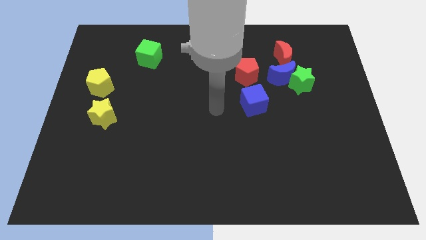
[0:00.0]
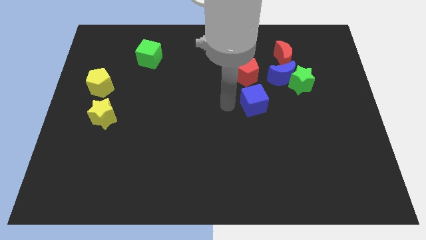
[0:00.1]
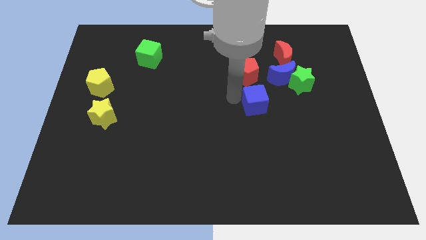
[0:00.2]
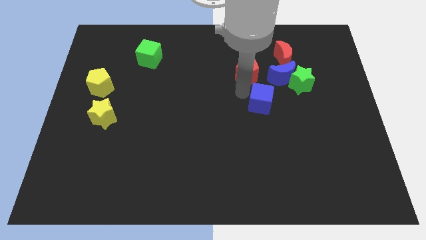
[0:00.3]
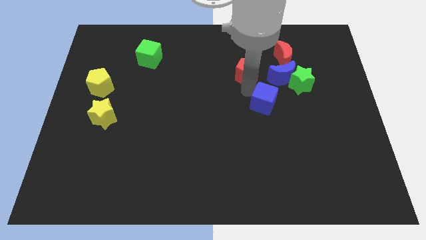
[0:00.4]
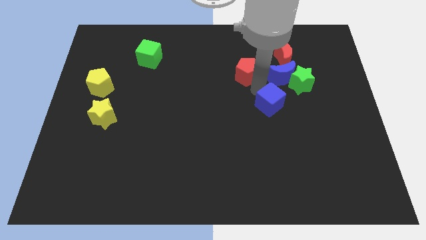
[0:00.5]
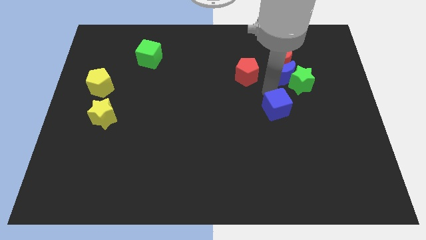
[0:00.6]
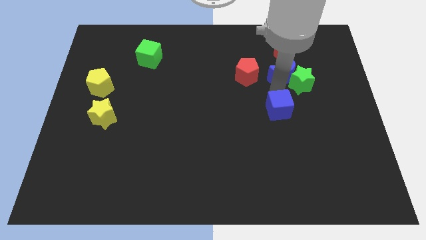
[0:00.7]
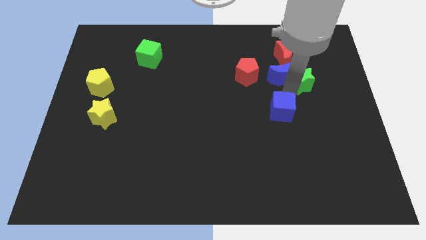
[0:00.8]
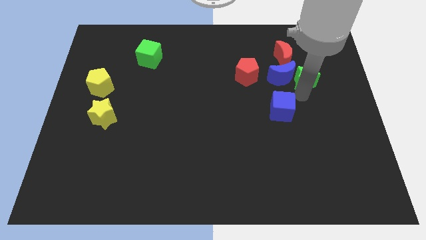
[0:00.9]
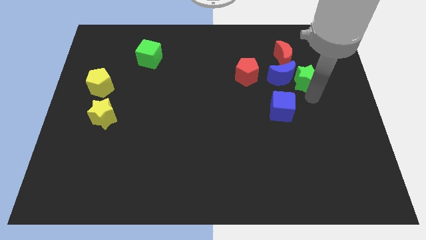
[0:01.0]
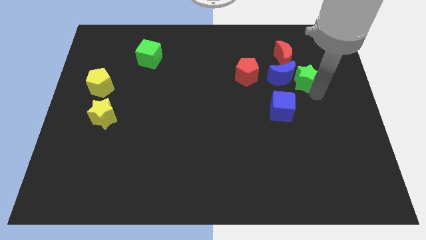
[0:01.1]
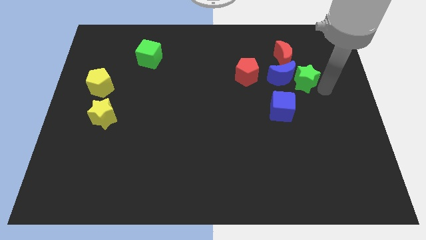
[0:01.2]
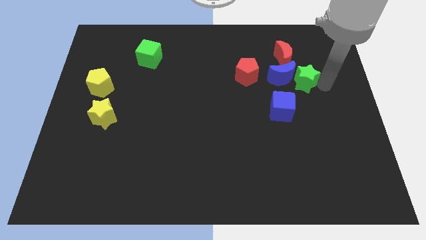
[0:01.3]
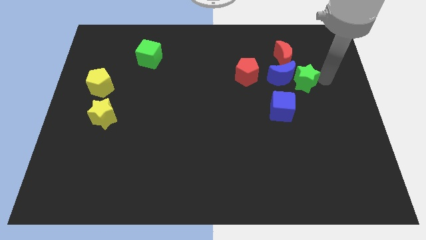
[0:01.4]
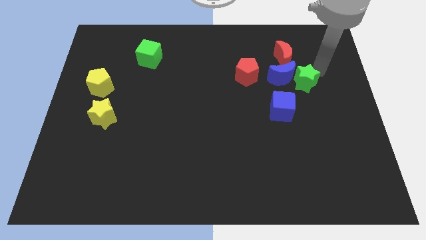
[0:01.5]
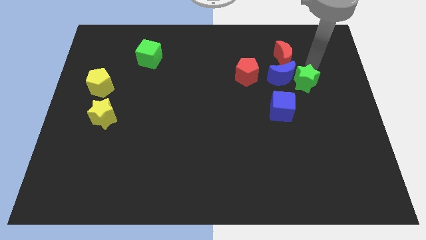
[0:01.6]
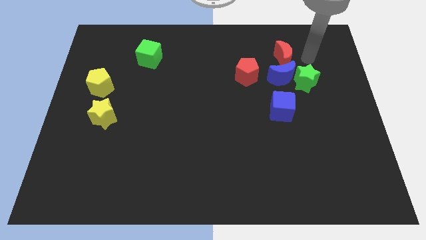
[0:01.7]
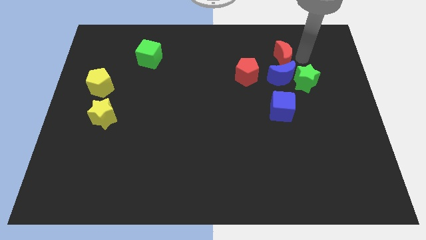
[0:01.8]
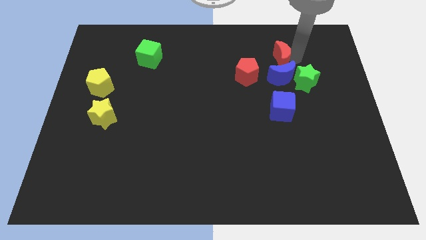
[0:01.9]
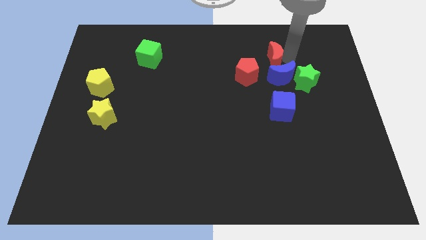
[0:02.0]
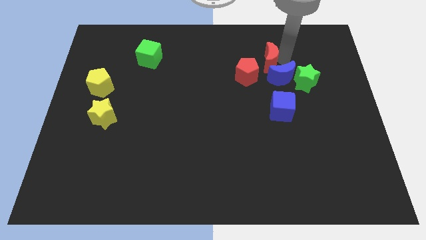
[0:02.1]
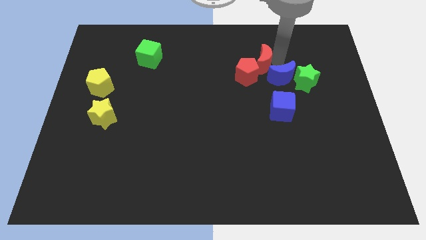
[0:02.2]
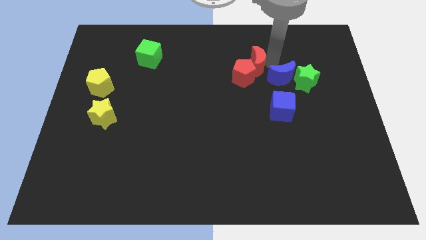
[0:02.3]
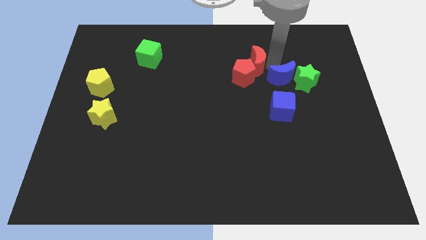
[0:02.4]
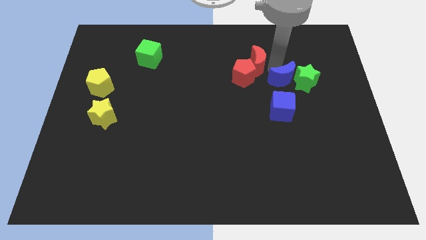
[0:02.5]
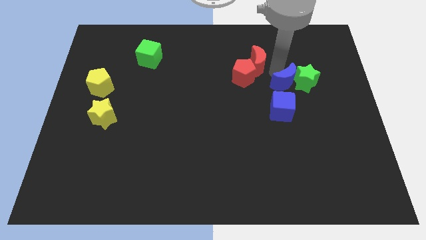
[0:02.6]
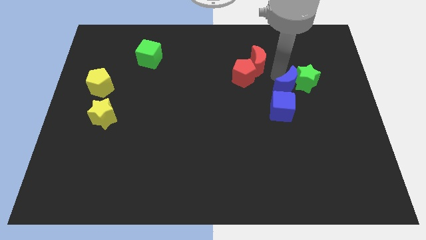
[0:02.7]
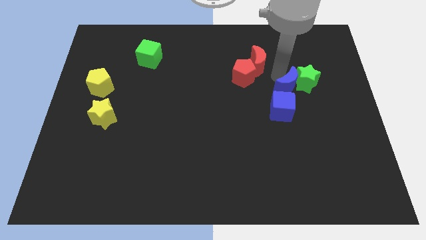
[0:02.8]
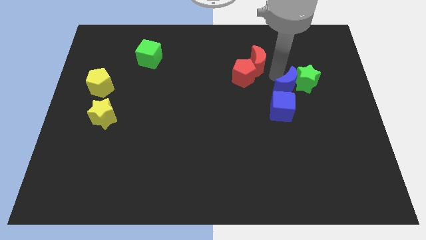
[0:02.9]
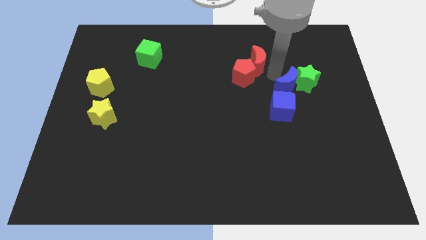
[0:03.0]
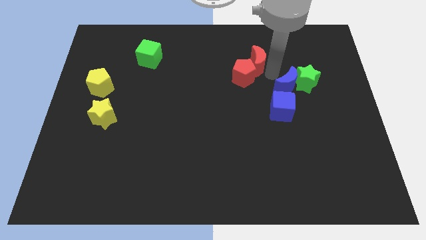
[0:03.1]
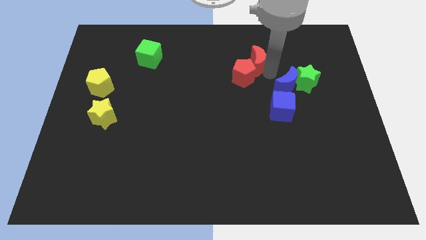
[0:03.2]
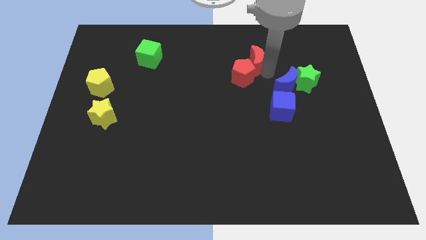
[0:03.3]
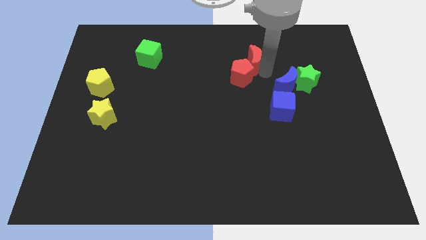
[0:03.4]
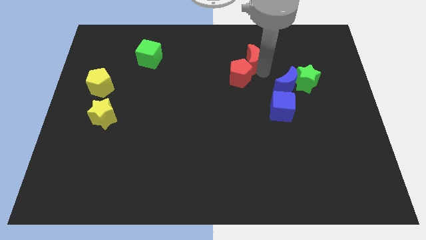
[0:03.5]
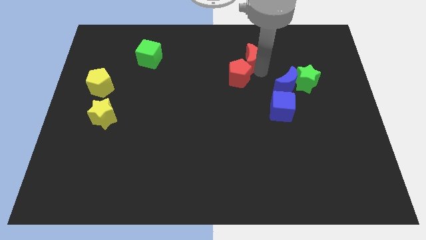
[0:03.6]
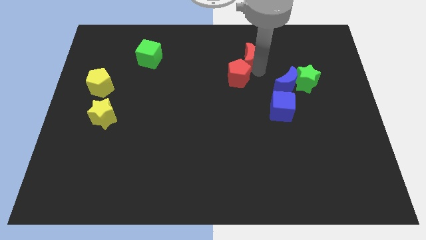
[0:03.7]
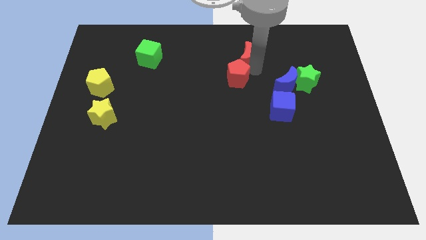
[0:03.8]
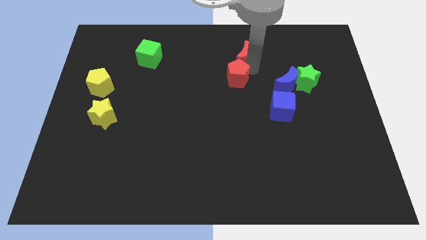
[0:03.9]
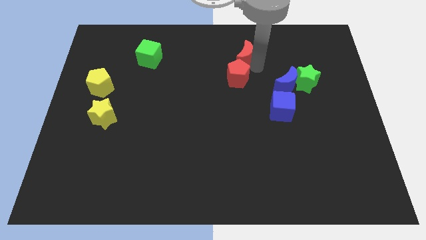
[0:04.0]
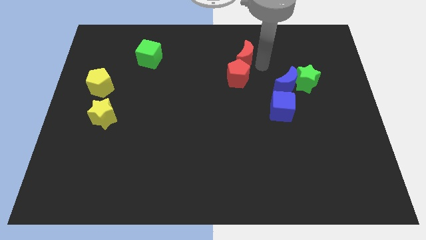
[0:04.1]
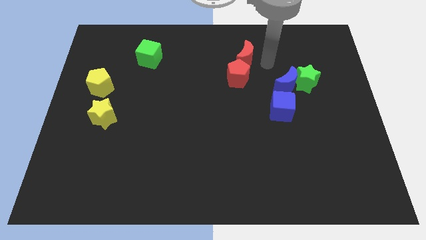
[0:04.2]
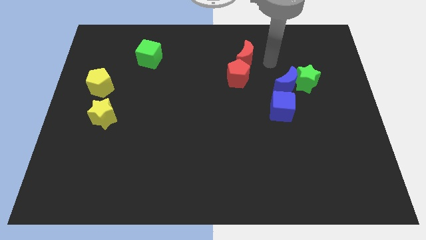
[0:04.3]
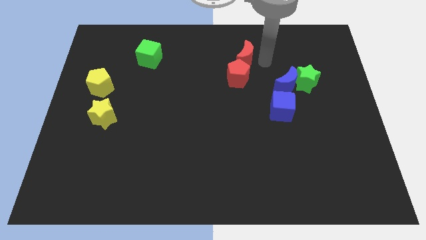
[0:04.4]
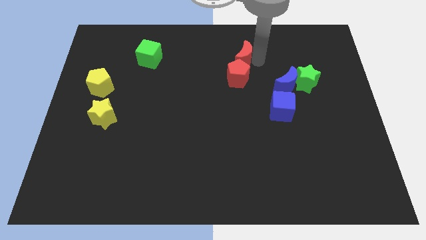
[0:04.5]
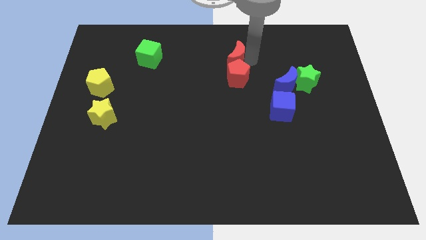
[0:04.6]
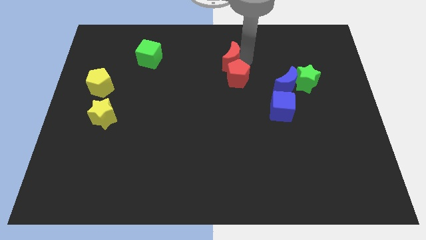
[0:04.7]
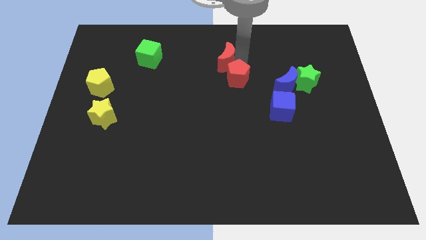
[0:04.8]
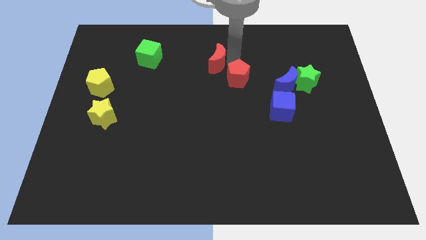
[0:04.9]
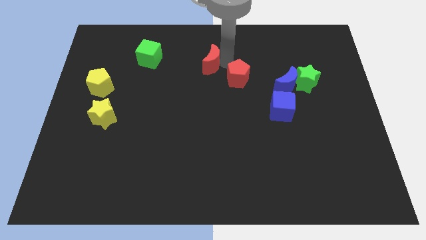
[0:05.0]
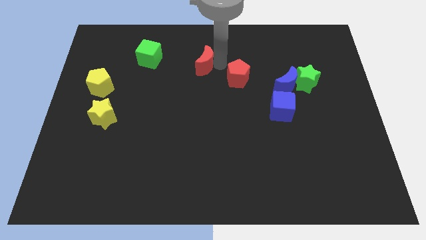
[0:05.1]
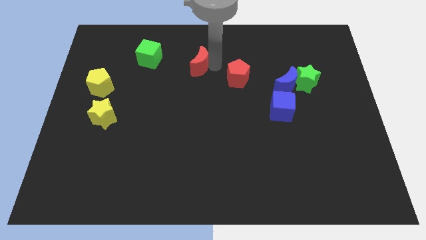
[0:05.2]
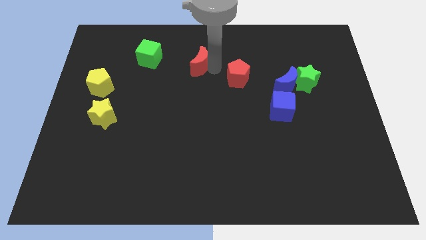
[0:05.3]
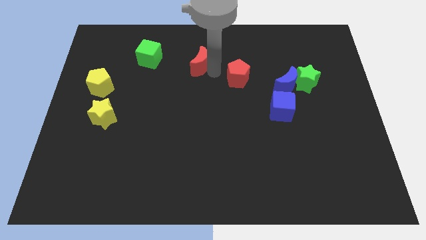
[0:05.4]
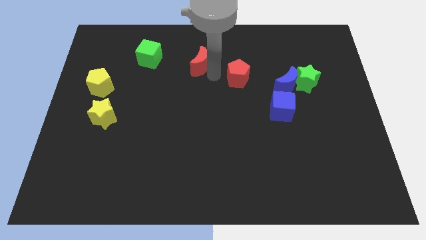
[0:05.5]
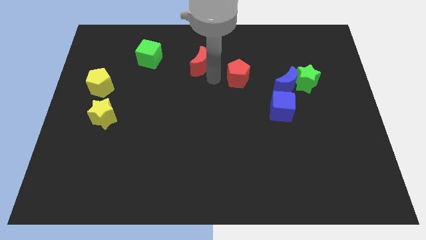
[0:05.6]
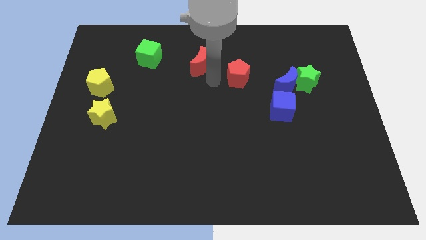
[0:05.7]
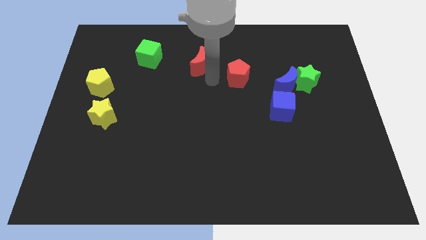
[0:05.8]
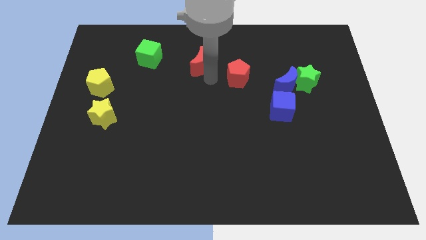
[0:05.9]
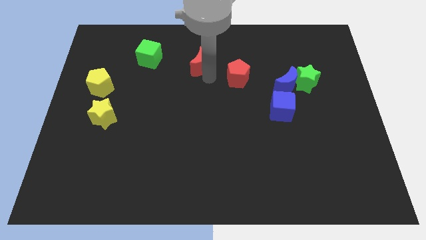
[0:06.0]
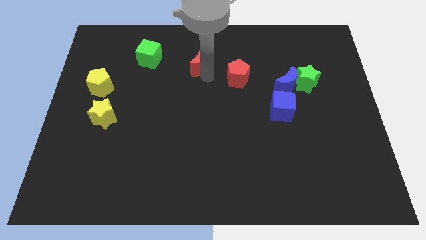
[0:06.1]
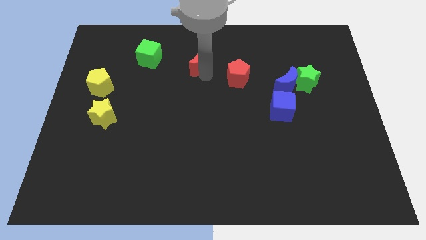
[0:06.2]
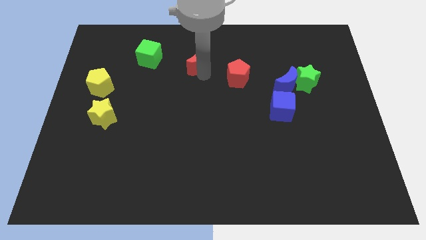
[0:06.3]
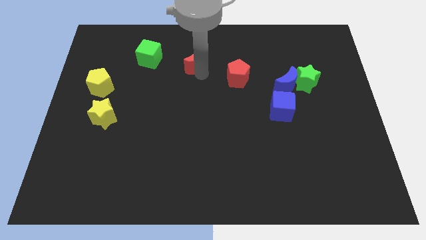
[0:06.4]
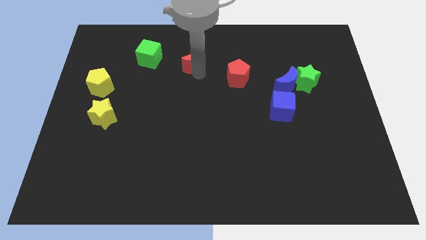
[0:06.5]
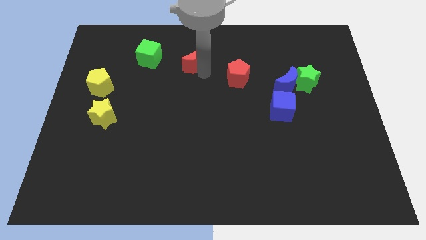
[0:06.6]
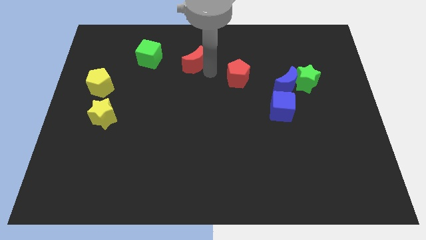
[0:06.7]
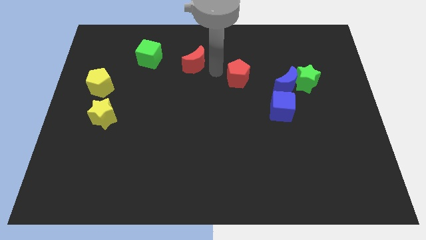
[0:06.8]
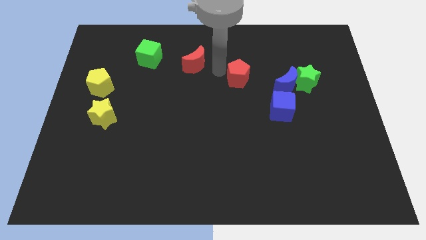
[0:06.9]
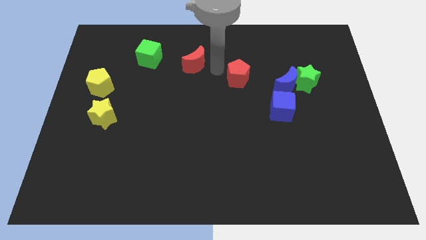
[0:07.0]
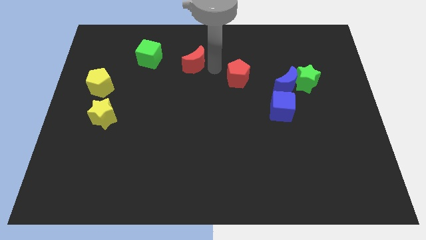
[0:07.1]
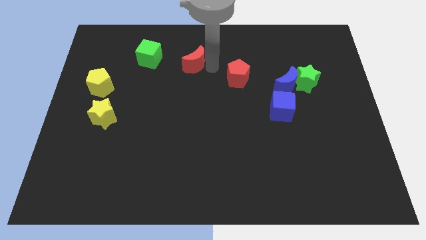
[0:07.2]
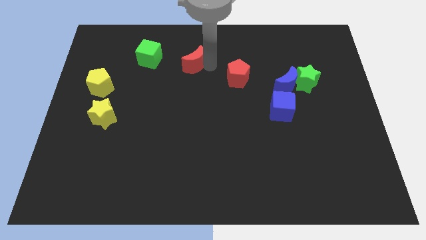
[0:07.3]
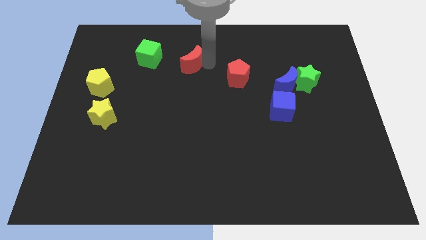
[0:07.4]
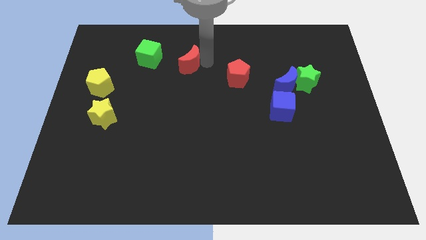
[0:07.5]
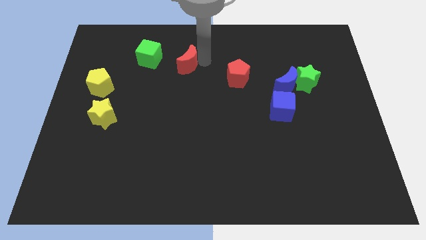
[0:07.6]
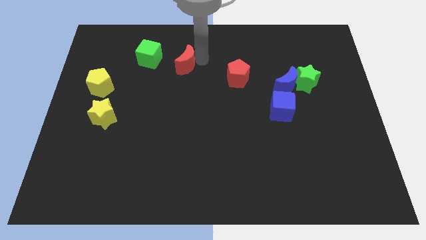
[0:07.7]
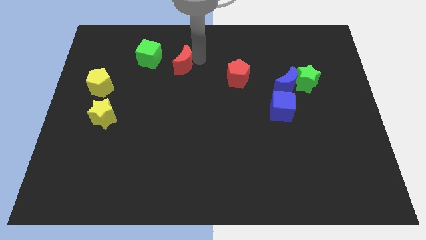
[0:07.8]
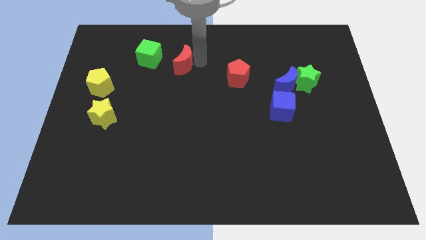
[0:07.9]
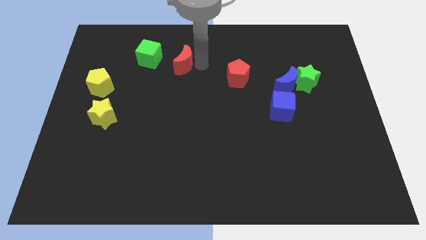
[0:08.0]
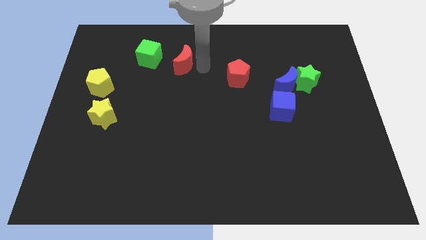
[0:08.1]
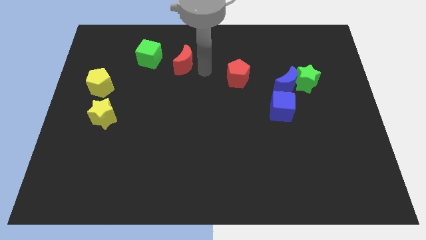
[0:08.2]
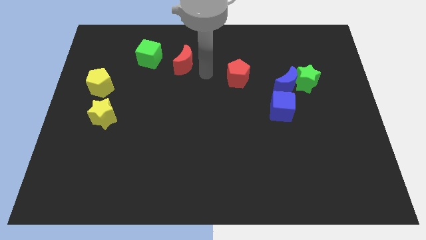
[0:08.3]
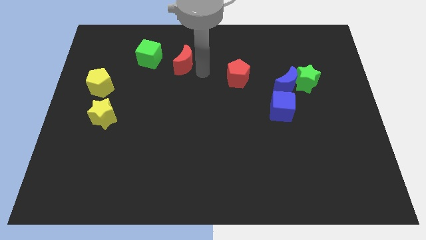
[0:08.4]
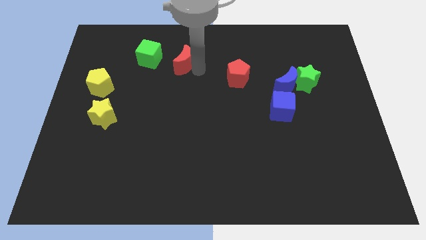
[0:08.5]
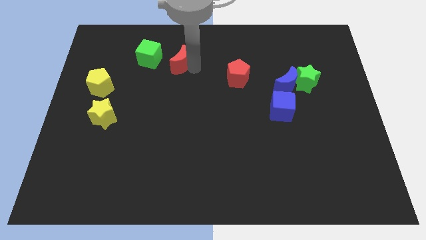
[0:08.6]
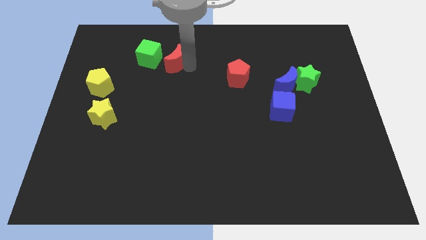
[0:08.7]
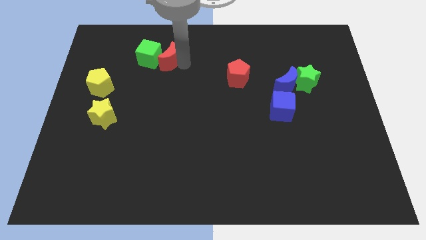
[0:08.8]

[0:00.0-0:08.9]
move the red moon close to the green cube
